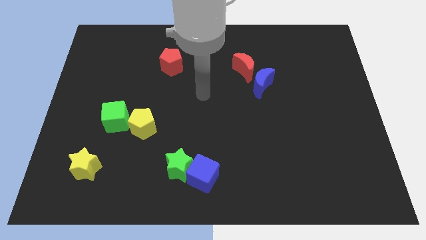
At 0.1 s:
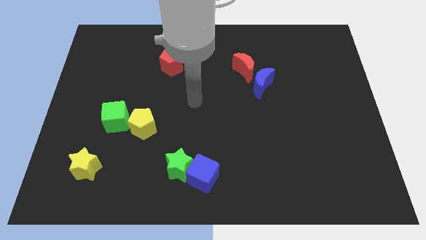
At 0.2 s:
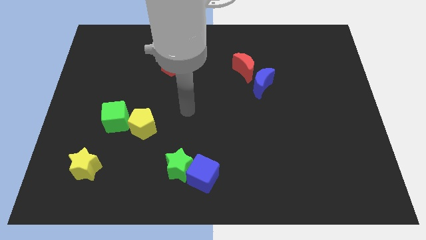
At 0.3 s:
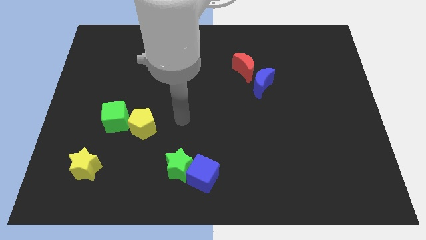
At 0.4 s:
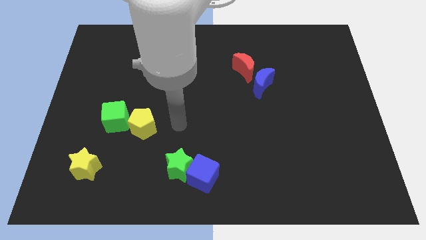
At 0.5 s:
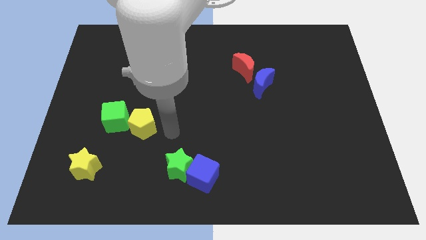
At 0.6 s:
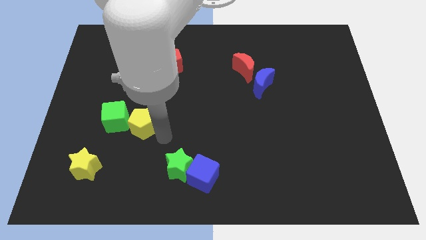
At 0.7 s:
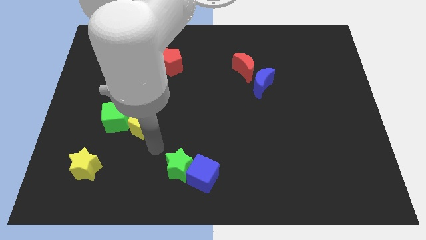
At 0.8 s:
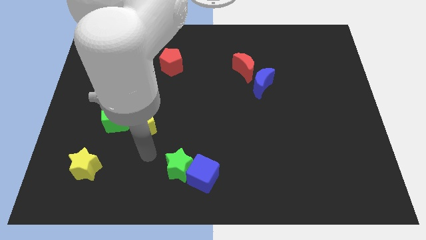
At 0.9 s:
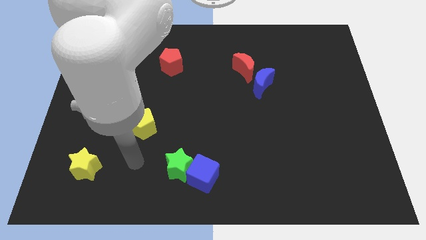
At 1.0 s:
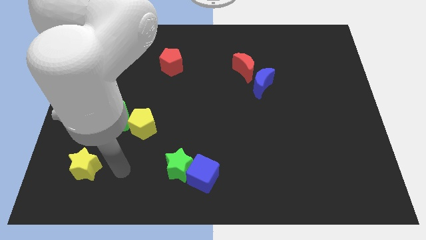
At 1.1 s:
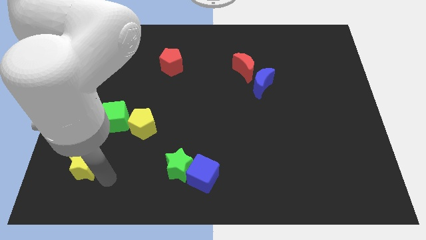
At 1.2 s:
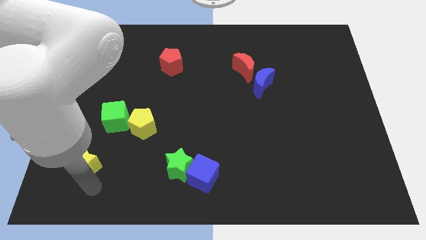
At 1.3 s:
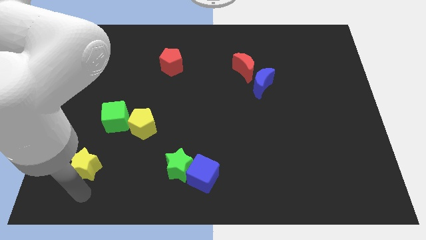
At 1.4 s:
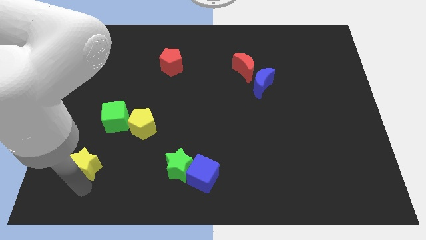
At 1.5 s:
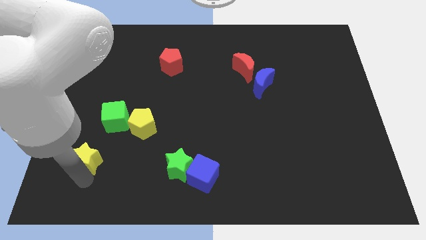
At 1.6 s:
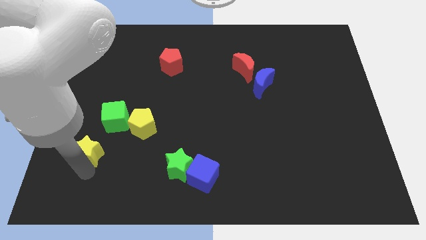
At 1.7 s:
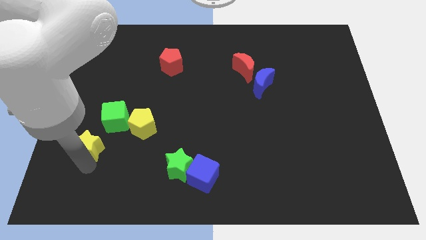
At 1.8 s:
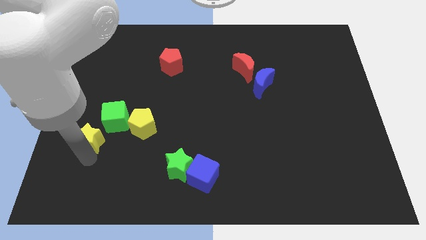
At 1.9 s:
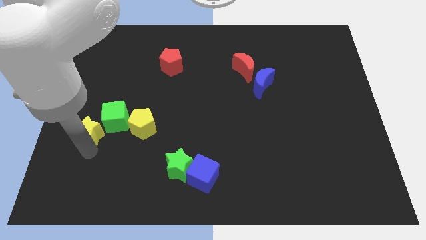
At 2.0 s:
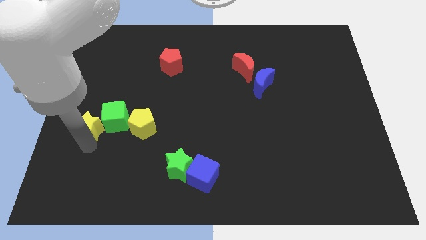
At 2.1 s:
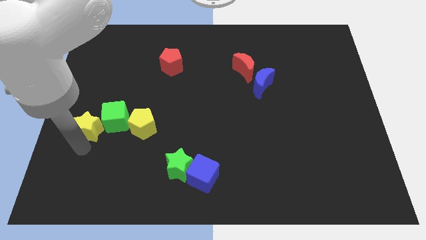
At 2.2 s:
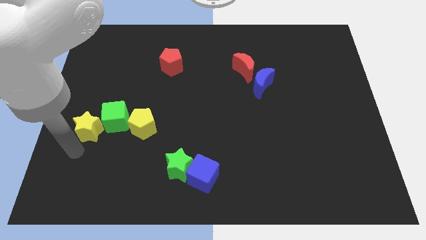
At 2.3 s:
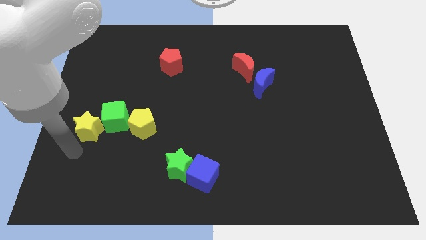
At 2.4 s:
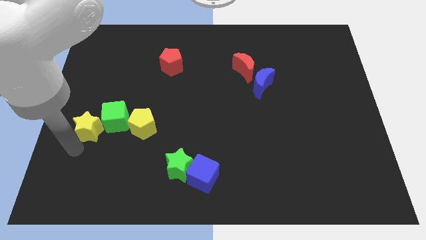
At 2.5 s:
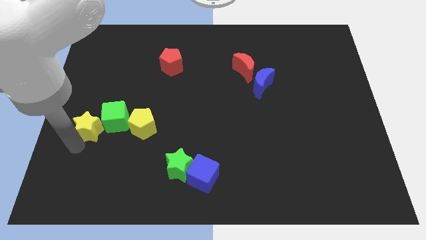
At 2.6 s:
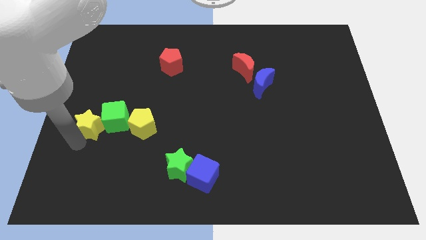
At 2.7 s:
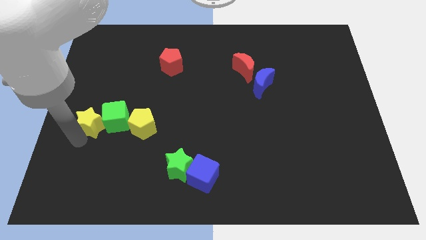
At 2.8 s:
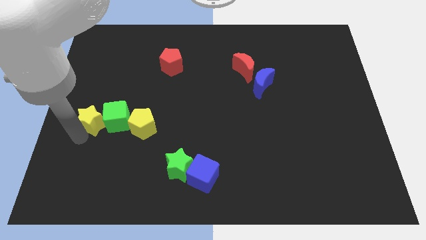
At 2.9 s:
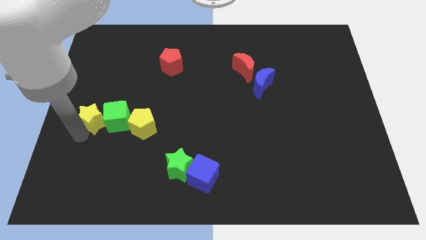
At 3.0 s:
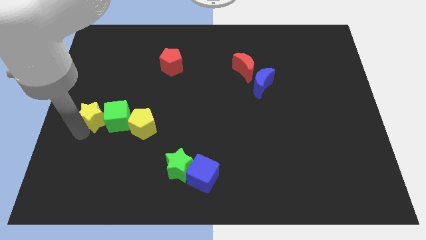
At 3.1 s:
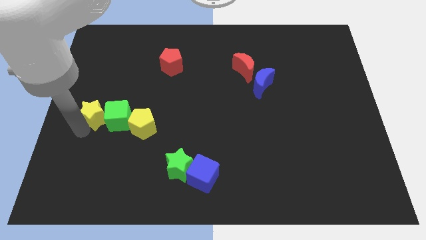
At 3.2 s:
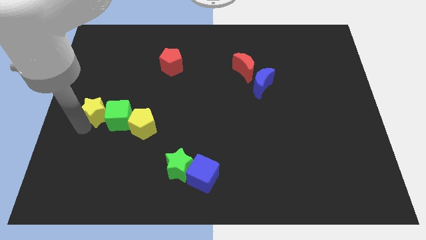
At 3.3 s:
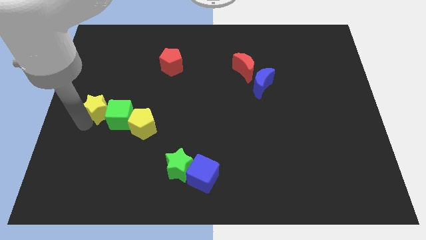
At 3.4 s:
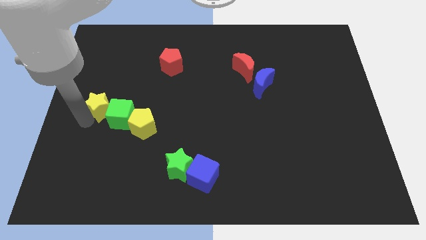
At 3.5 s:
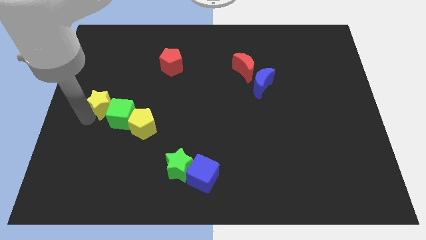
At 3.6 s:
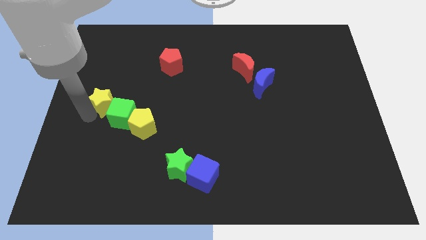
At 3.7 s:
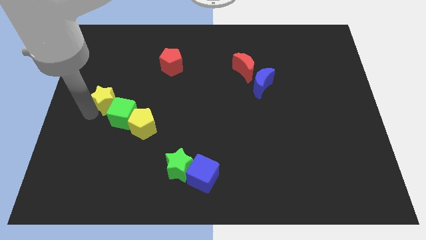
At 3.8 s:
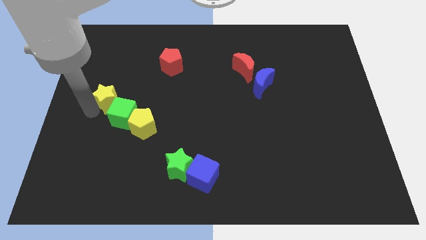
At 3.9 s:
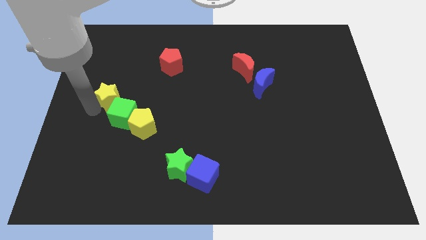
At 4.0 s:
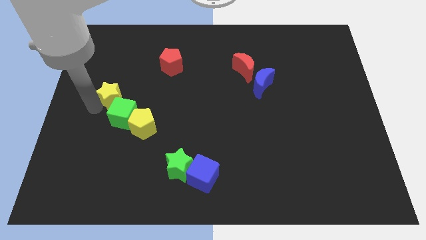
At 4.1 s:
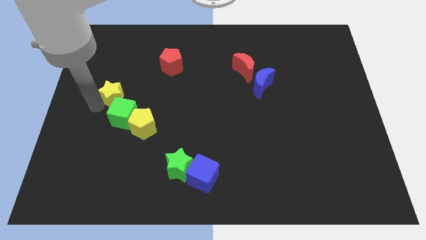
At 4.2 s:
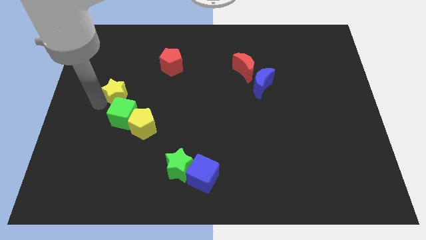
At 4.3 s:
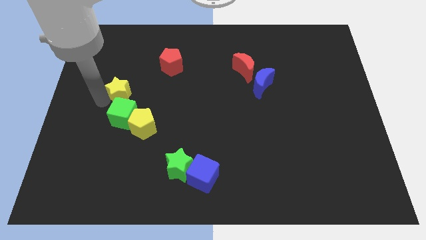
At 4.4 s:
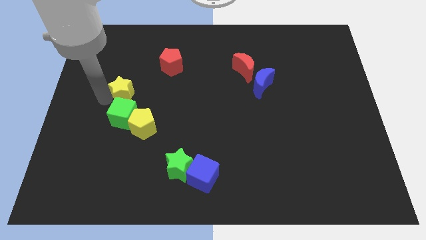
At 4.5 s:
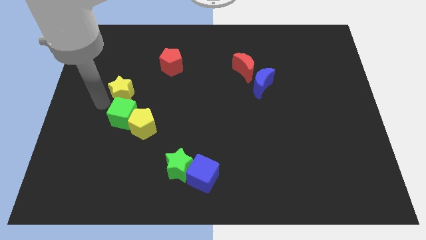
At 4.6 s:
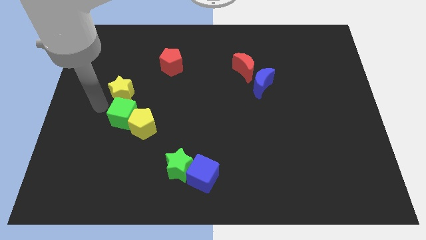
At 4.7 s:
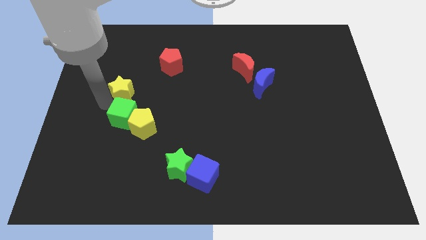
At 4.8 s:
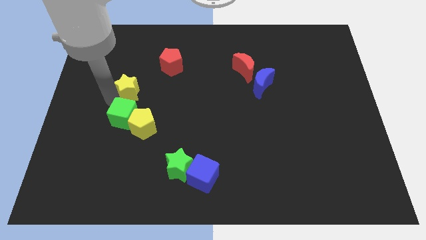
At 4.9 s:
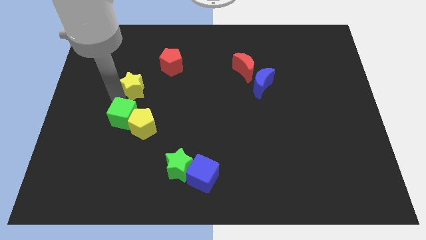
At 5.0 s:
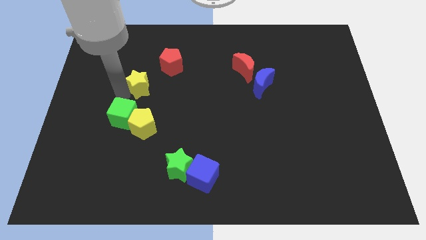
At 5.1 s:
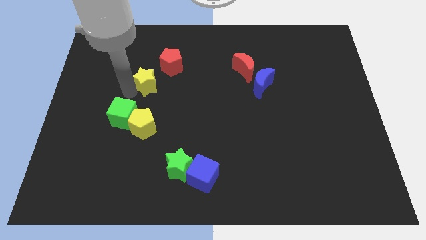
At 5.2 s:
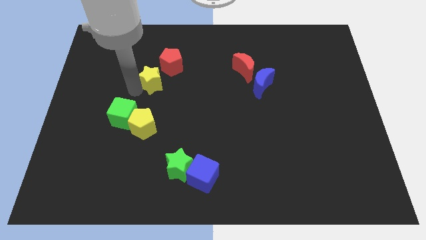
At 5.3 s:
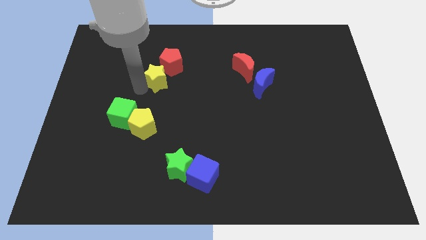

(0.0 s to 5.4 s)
put the yellow star to the red pentagon

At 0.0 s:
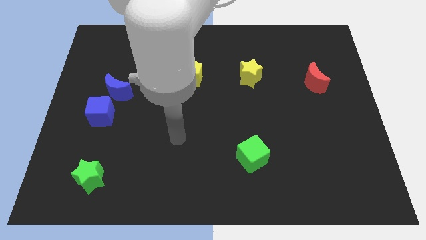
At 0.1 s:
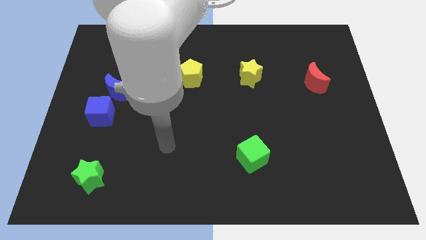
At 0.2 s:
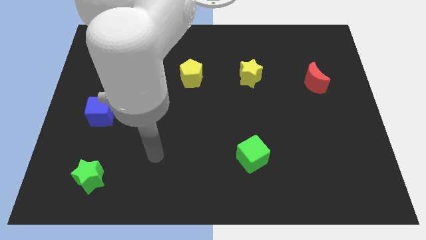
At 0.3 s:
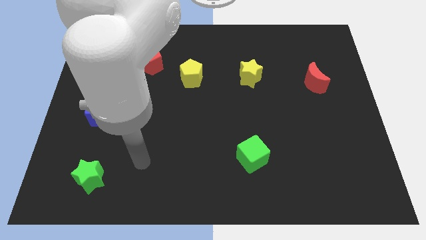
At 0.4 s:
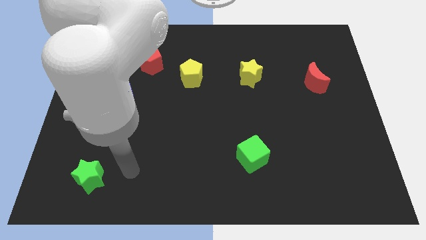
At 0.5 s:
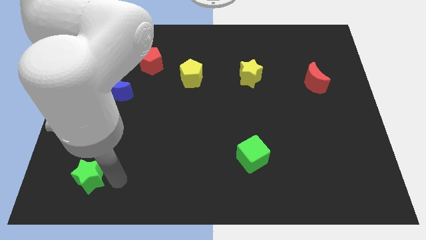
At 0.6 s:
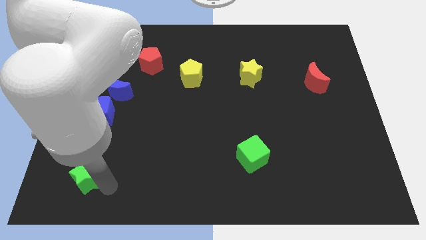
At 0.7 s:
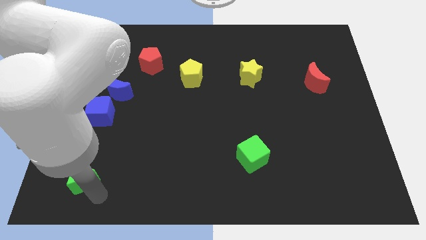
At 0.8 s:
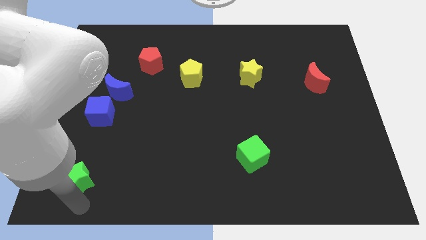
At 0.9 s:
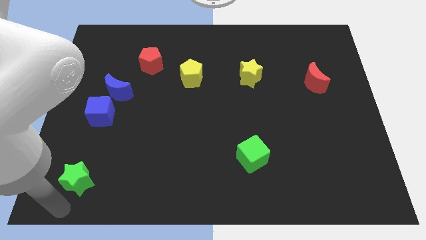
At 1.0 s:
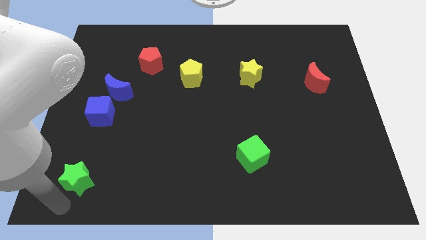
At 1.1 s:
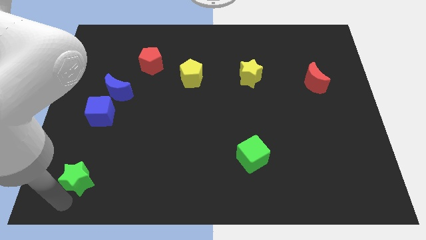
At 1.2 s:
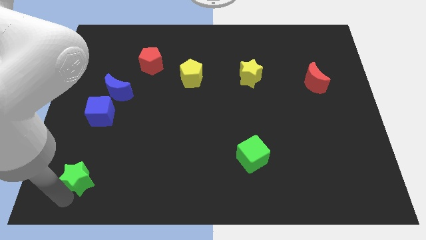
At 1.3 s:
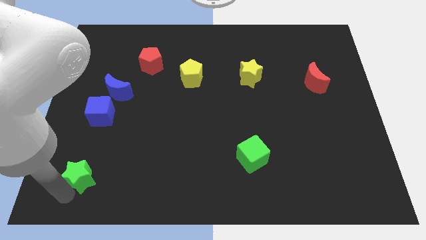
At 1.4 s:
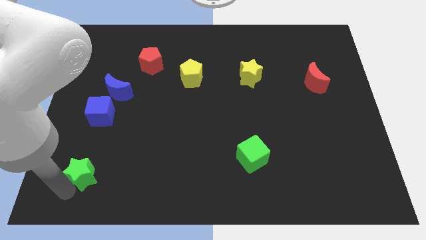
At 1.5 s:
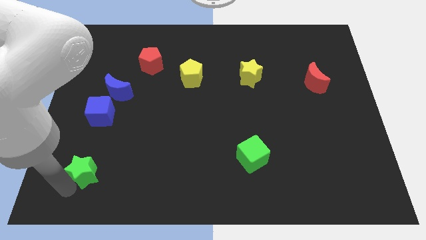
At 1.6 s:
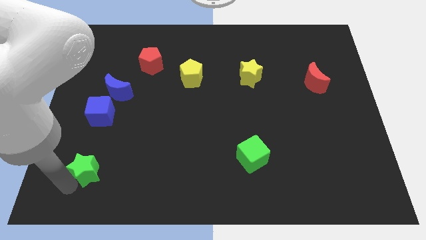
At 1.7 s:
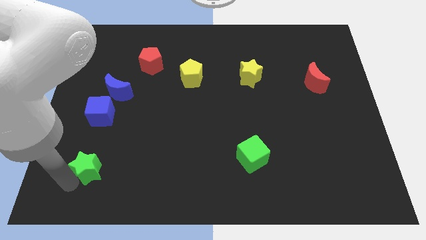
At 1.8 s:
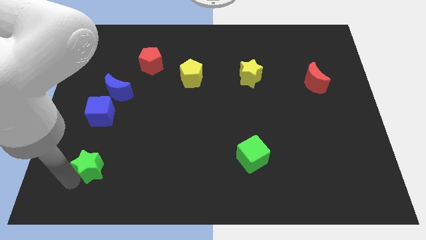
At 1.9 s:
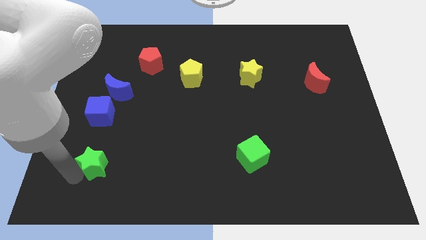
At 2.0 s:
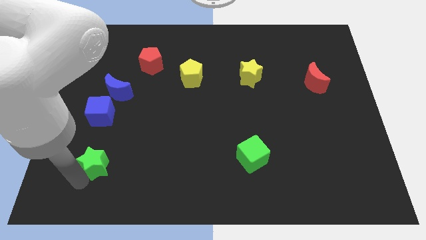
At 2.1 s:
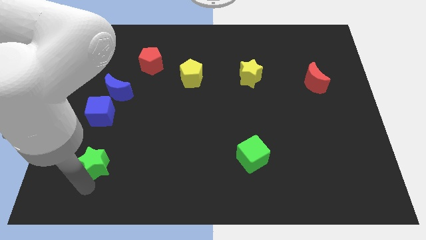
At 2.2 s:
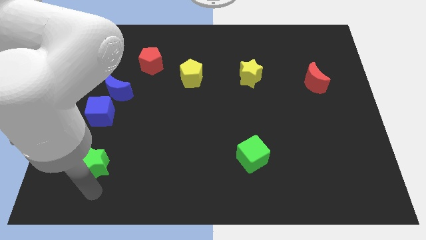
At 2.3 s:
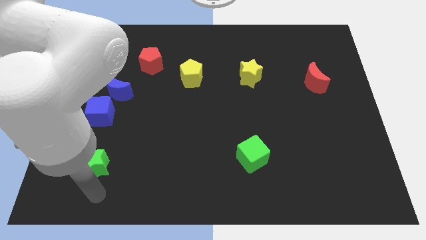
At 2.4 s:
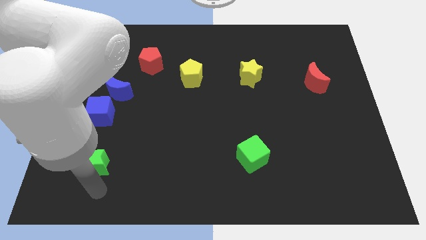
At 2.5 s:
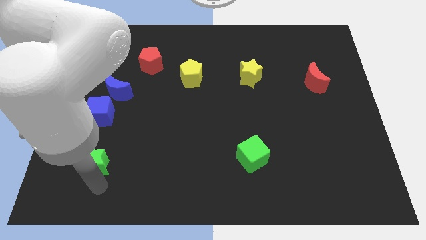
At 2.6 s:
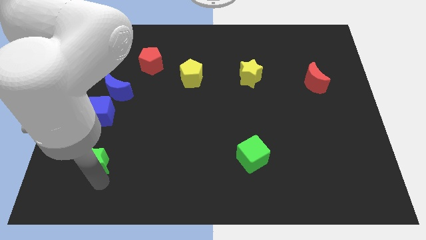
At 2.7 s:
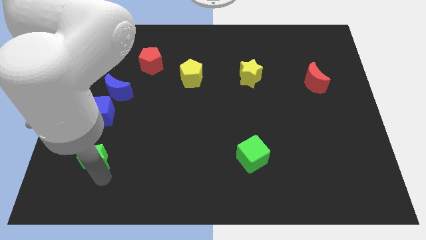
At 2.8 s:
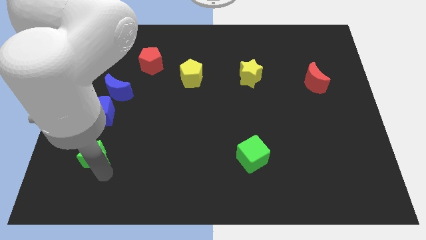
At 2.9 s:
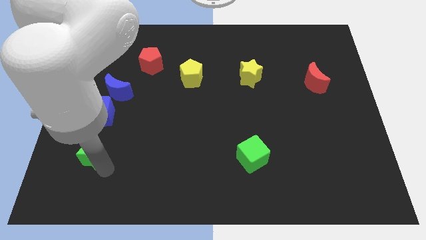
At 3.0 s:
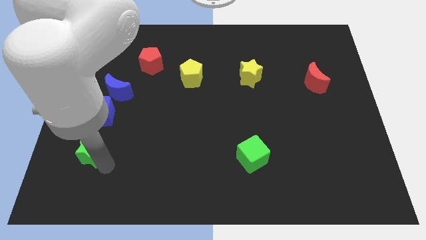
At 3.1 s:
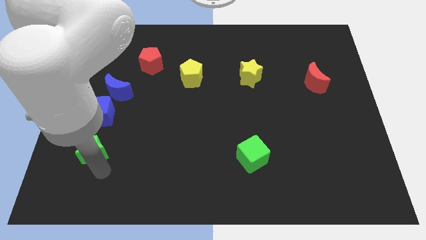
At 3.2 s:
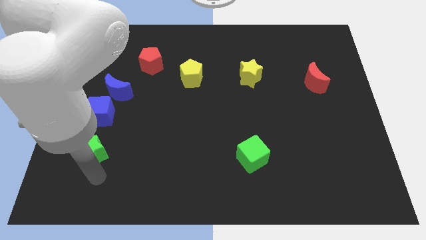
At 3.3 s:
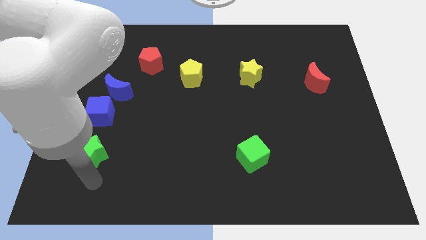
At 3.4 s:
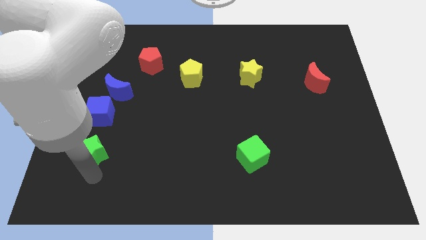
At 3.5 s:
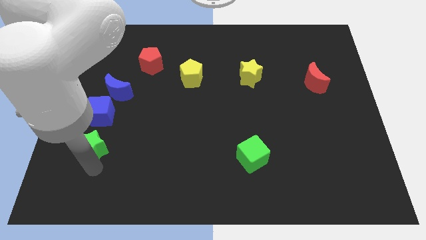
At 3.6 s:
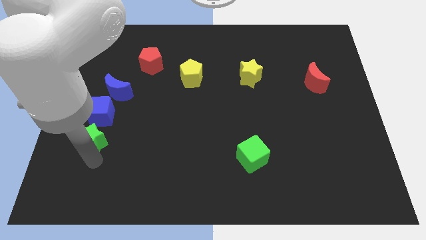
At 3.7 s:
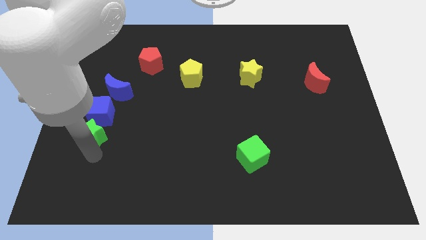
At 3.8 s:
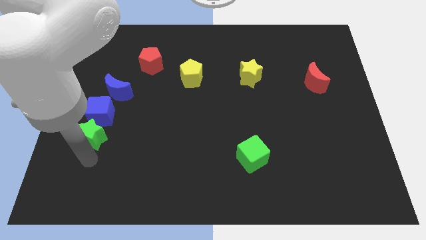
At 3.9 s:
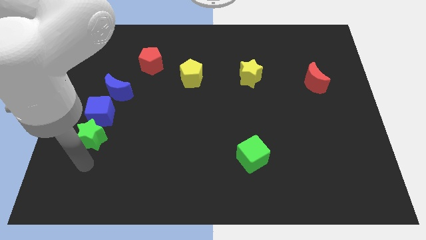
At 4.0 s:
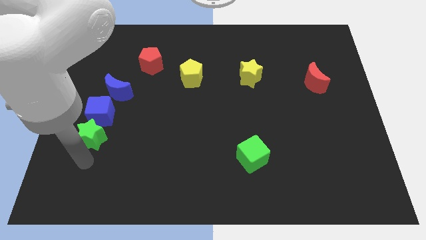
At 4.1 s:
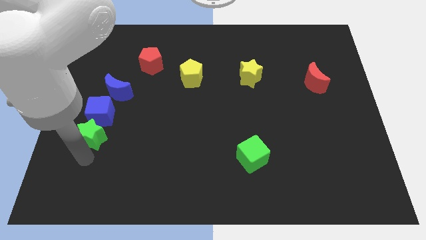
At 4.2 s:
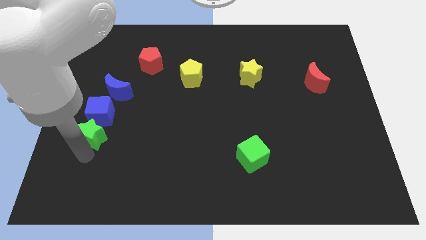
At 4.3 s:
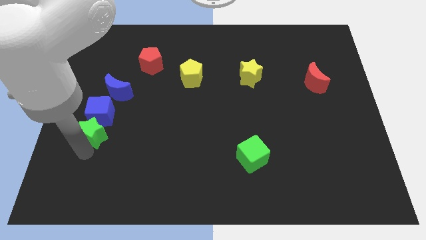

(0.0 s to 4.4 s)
put the green star towards the blue cube
